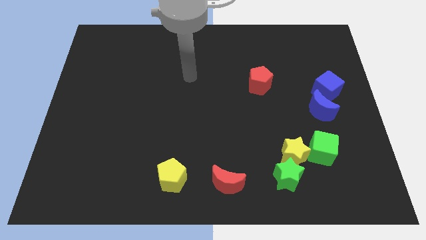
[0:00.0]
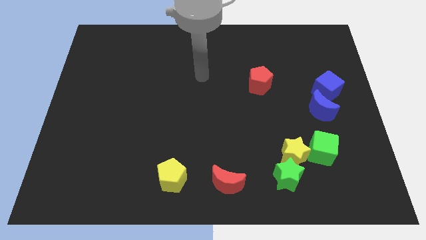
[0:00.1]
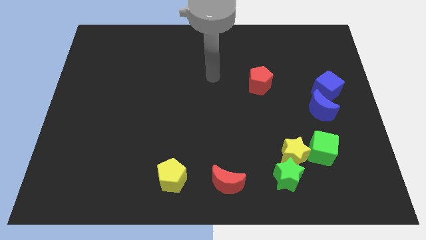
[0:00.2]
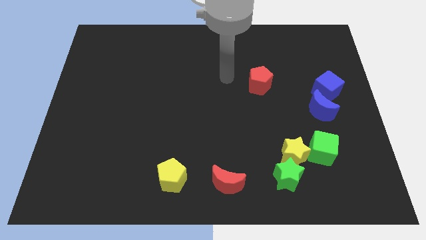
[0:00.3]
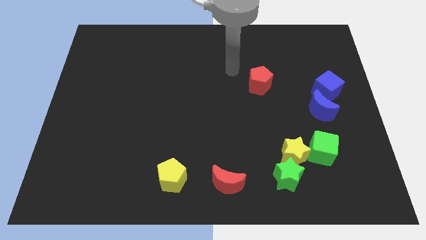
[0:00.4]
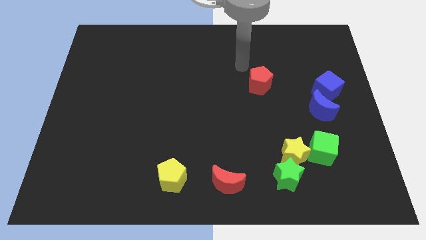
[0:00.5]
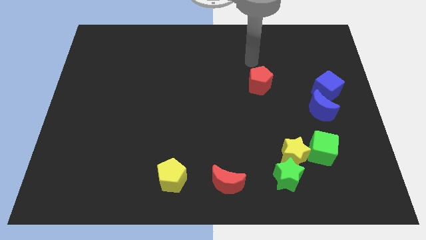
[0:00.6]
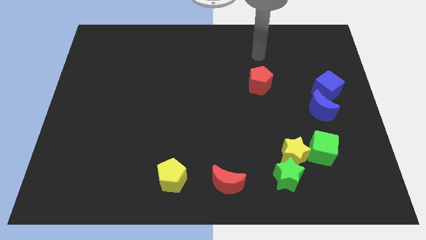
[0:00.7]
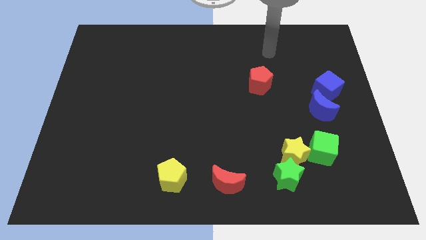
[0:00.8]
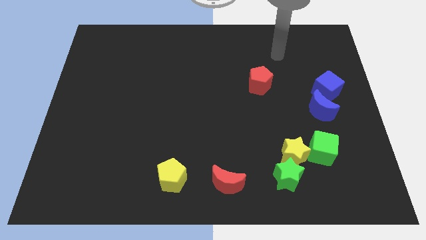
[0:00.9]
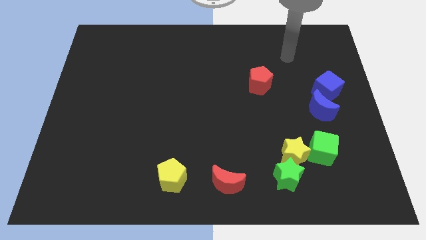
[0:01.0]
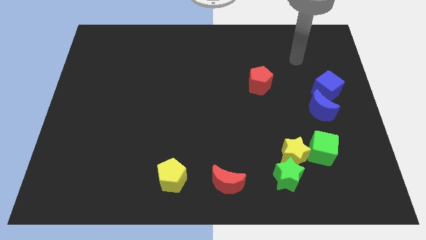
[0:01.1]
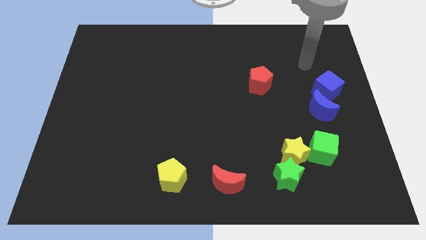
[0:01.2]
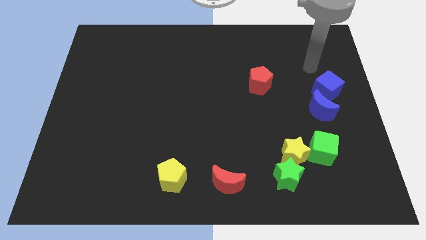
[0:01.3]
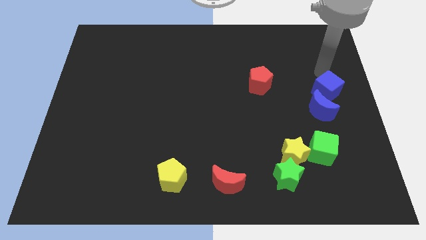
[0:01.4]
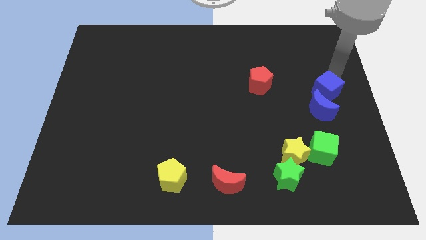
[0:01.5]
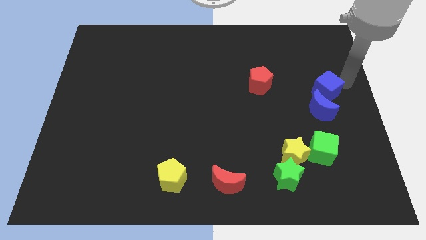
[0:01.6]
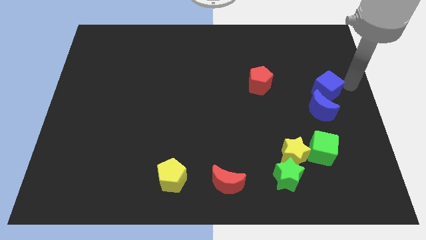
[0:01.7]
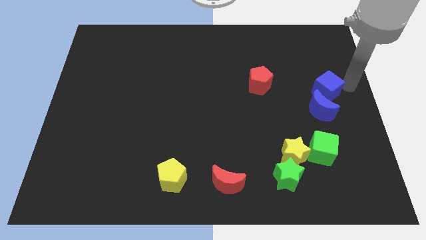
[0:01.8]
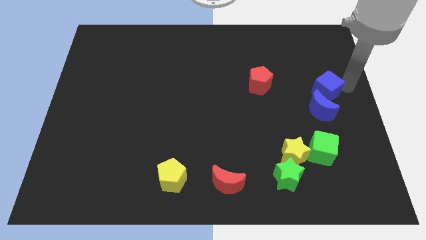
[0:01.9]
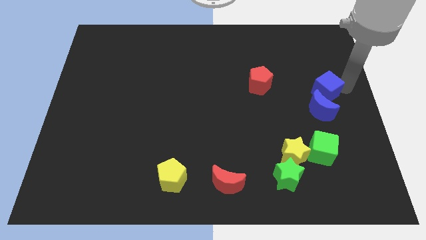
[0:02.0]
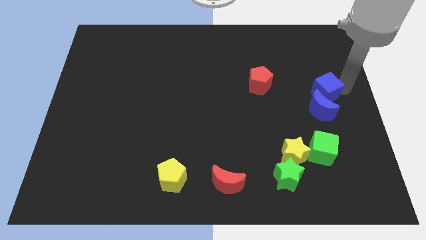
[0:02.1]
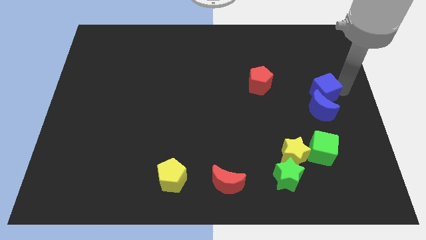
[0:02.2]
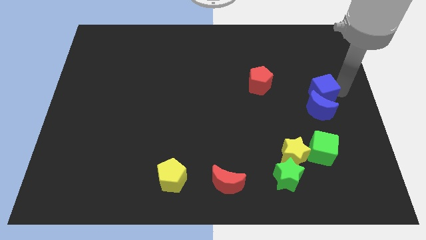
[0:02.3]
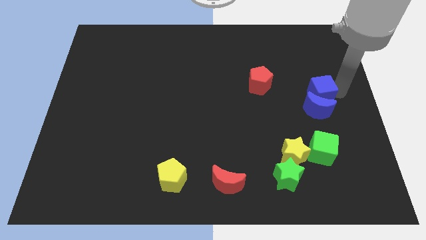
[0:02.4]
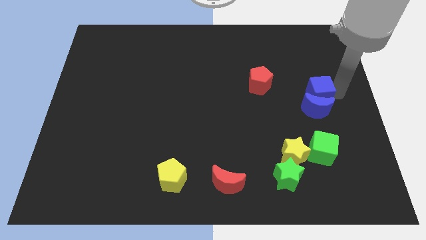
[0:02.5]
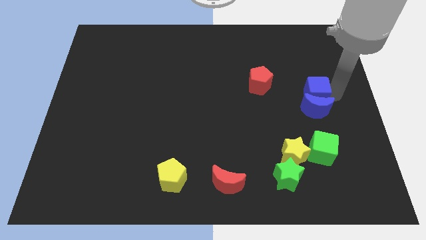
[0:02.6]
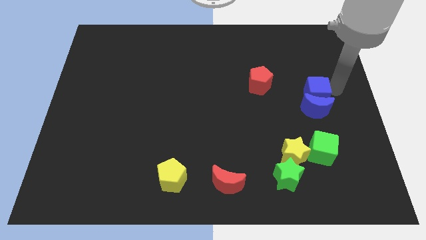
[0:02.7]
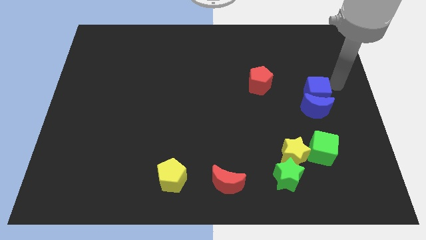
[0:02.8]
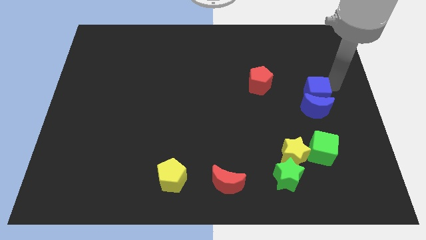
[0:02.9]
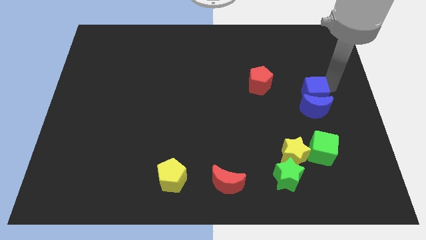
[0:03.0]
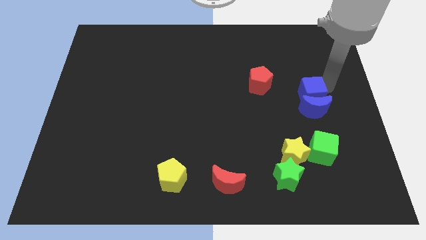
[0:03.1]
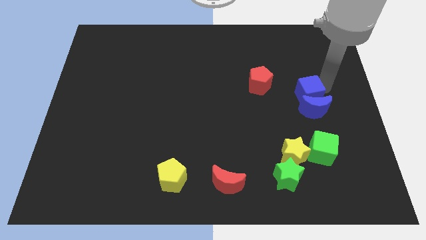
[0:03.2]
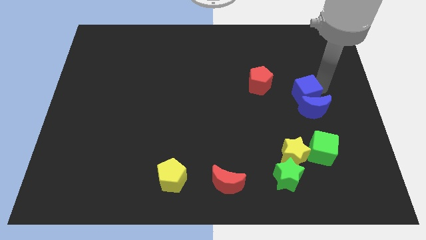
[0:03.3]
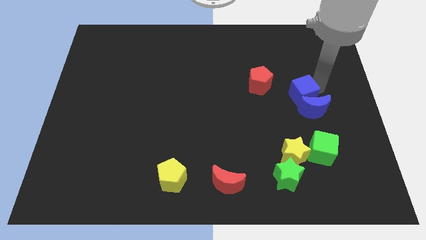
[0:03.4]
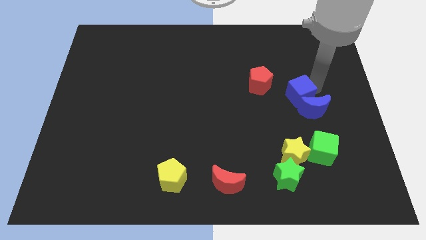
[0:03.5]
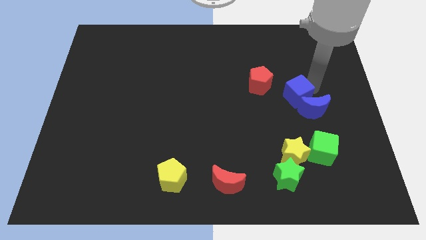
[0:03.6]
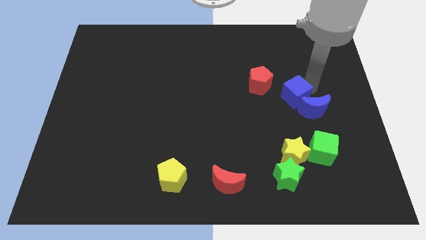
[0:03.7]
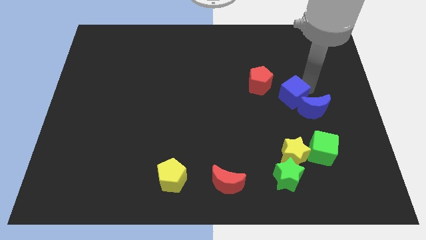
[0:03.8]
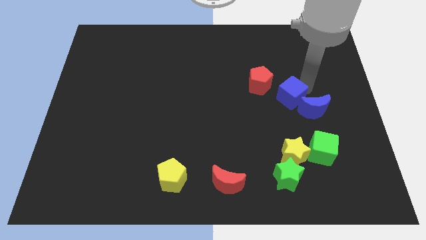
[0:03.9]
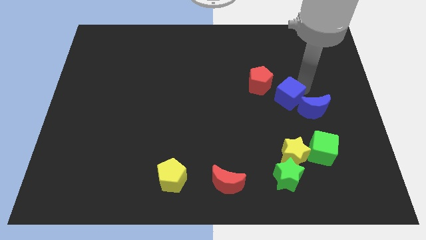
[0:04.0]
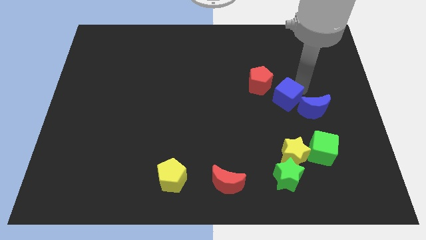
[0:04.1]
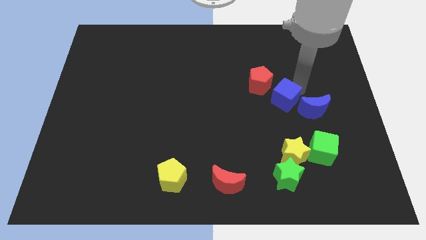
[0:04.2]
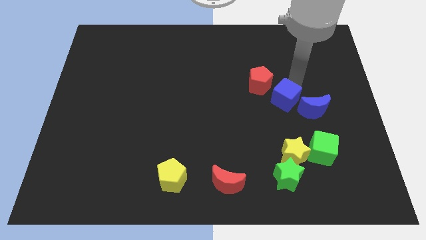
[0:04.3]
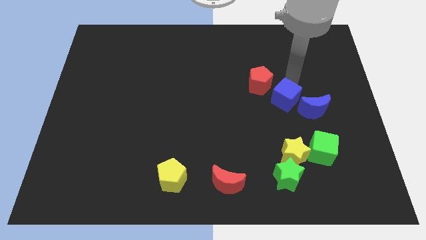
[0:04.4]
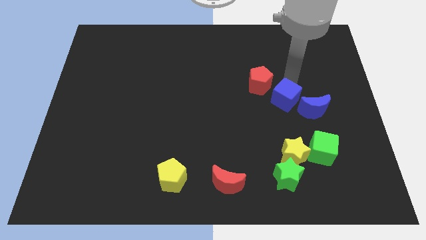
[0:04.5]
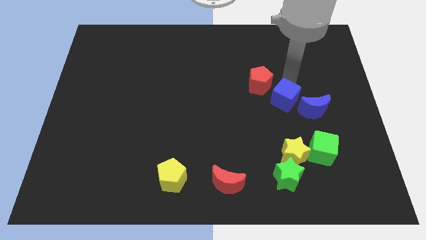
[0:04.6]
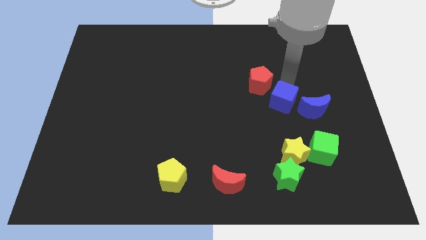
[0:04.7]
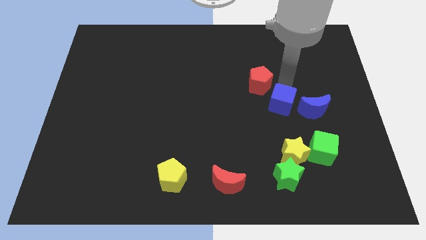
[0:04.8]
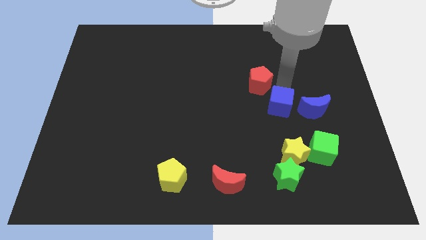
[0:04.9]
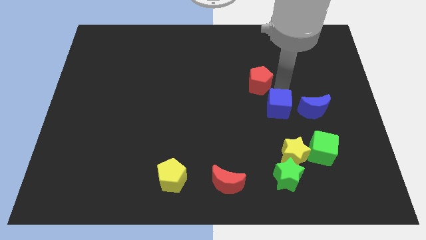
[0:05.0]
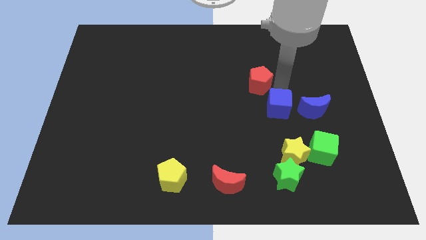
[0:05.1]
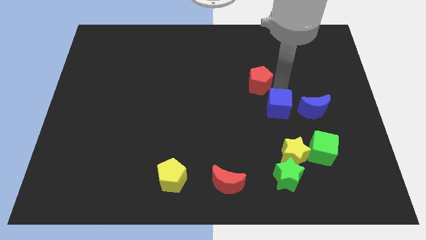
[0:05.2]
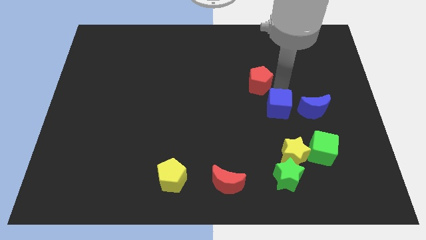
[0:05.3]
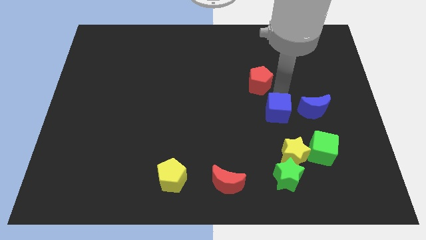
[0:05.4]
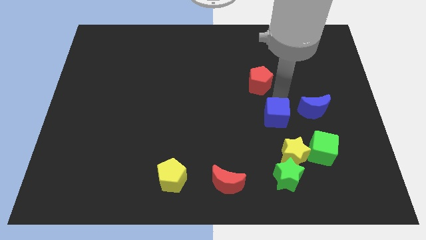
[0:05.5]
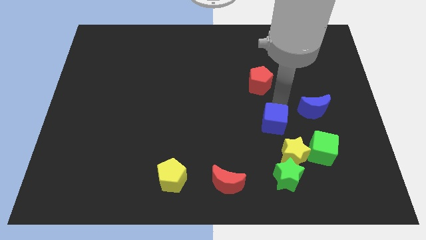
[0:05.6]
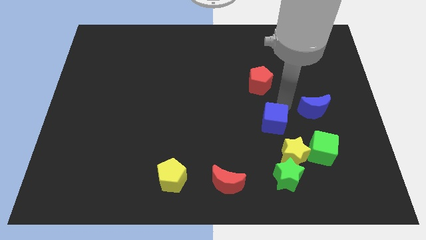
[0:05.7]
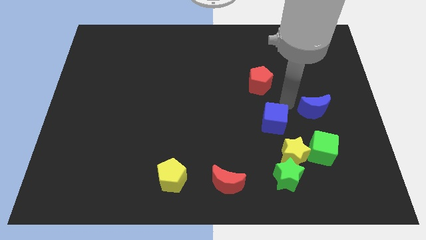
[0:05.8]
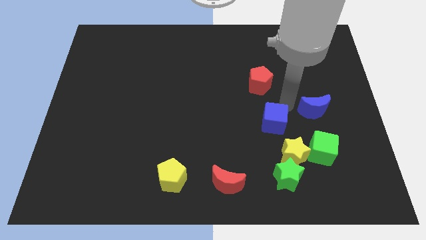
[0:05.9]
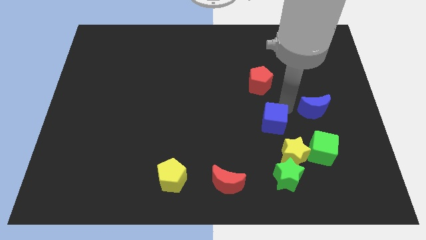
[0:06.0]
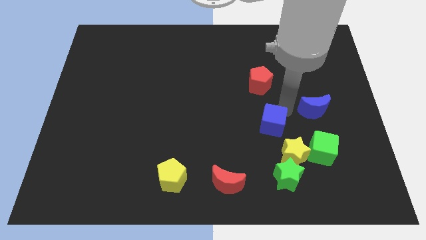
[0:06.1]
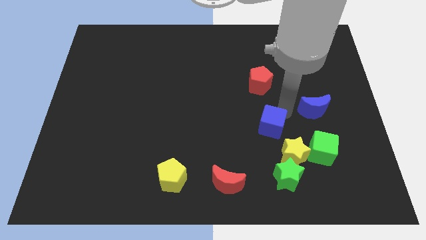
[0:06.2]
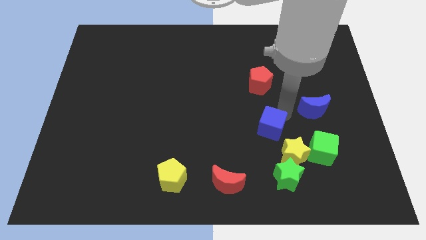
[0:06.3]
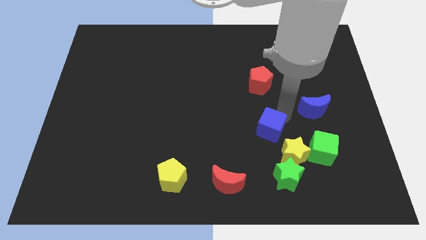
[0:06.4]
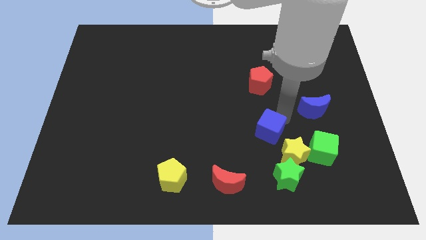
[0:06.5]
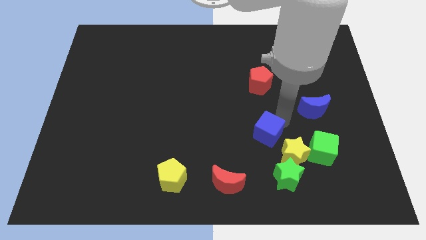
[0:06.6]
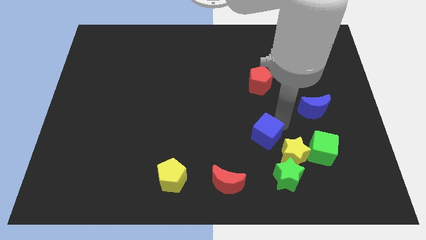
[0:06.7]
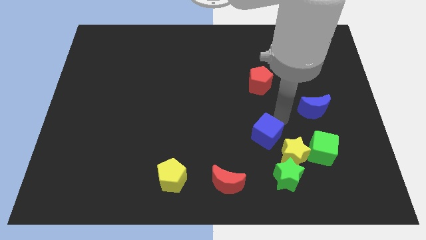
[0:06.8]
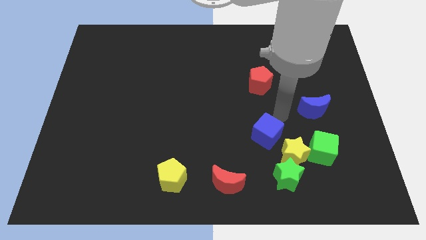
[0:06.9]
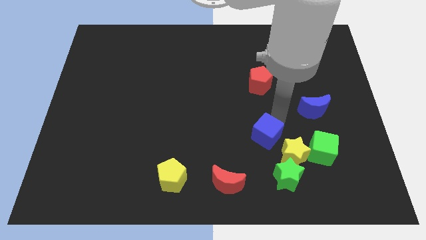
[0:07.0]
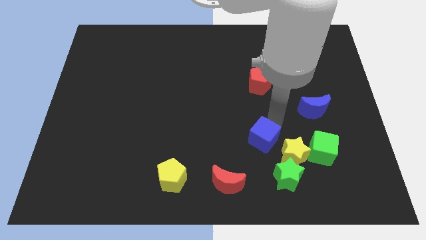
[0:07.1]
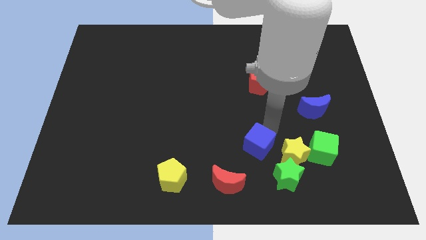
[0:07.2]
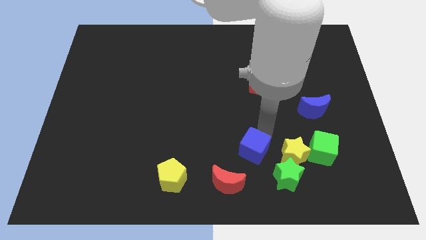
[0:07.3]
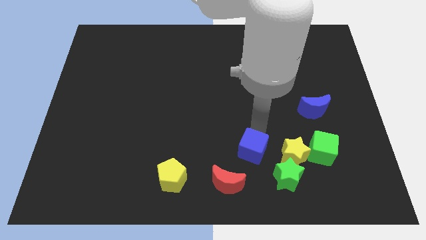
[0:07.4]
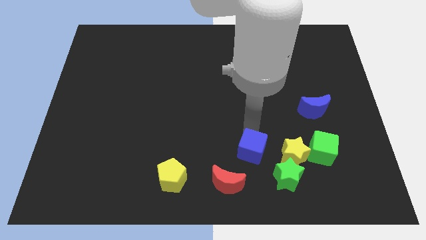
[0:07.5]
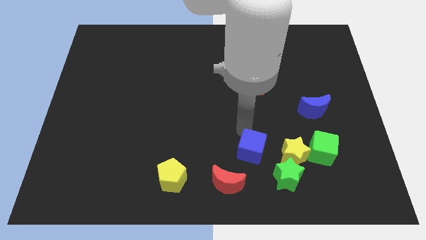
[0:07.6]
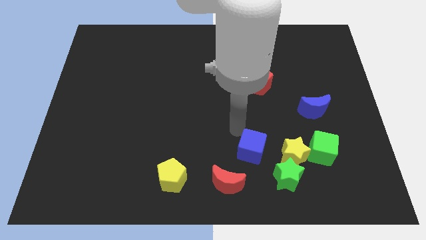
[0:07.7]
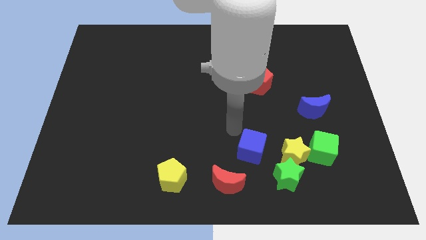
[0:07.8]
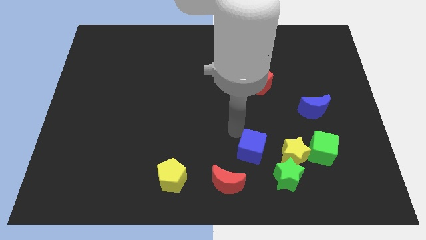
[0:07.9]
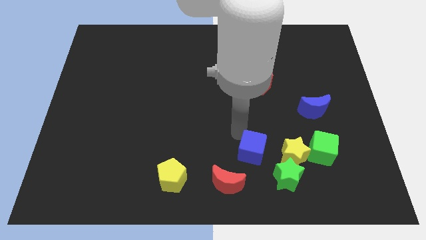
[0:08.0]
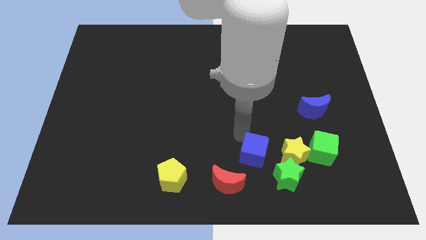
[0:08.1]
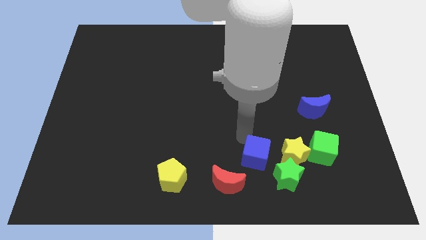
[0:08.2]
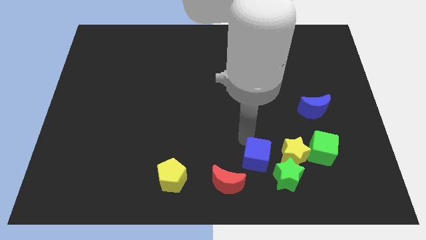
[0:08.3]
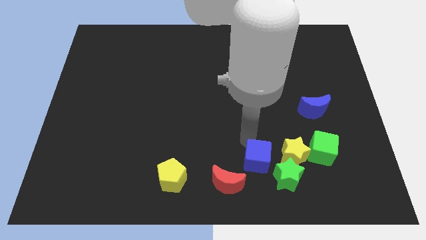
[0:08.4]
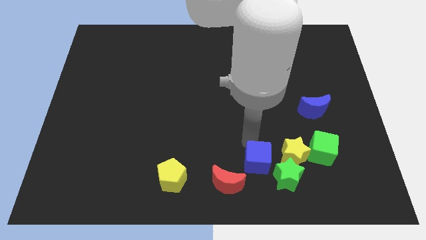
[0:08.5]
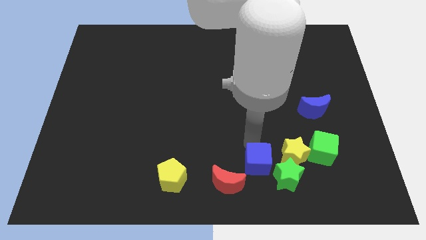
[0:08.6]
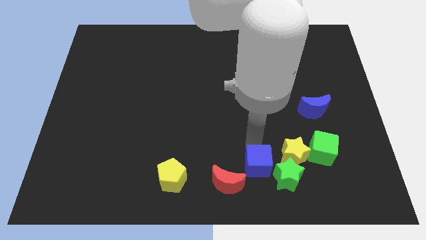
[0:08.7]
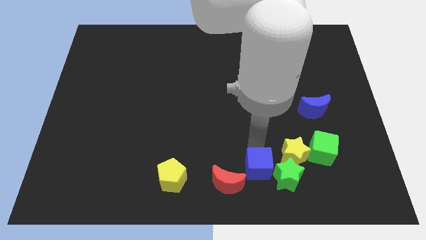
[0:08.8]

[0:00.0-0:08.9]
put the blue cube to the green star
